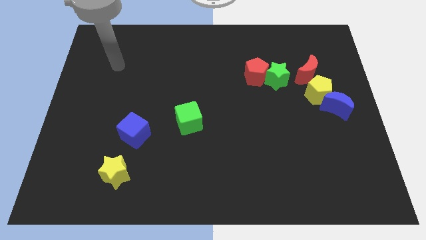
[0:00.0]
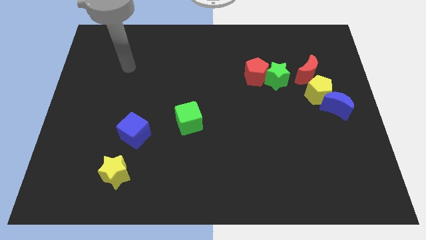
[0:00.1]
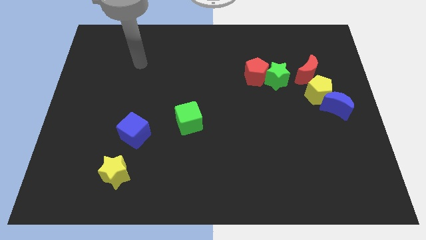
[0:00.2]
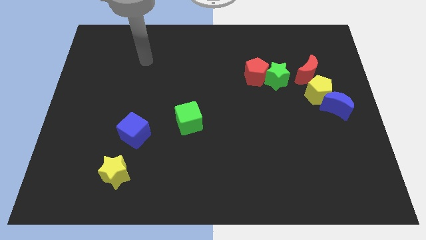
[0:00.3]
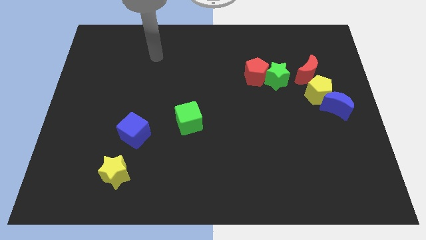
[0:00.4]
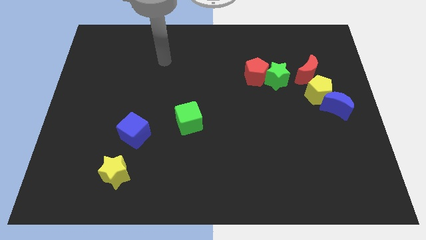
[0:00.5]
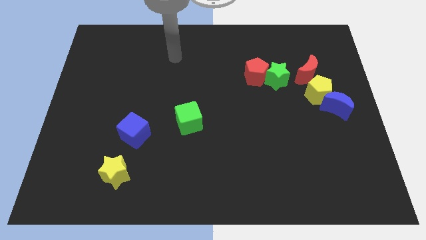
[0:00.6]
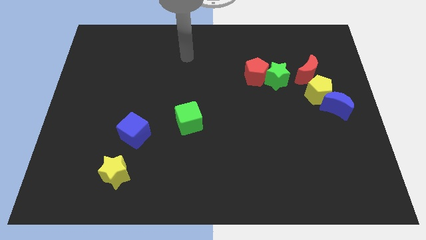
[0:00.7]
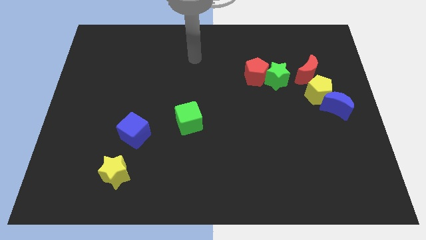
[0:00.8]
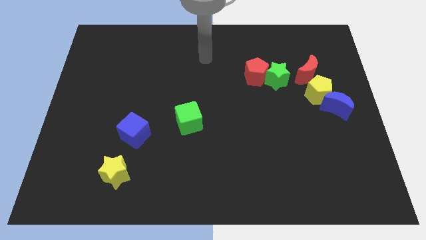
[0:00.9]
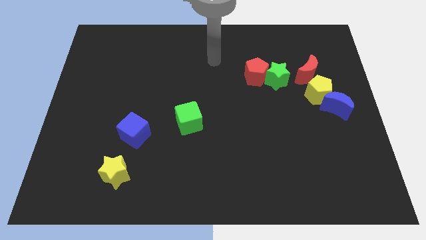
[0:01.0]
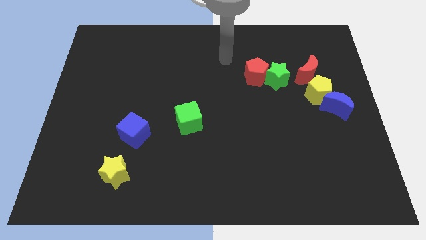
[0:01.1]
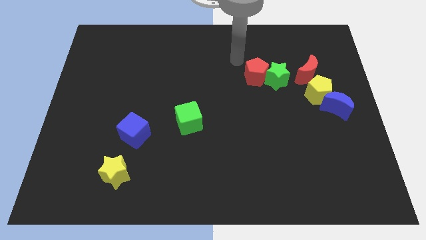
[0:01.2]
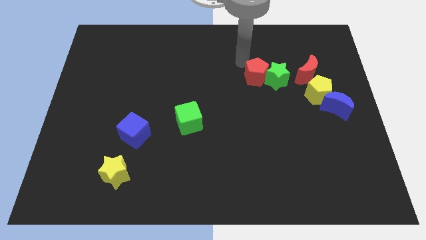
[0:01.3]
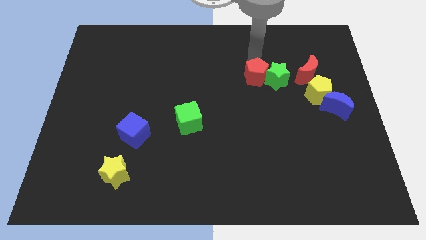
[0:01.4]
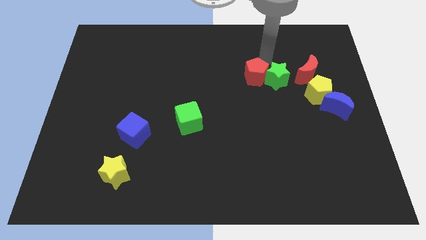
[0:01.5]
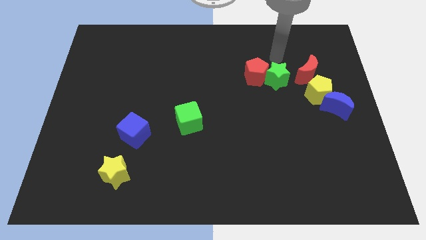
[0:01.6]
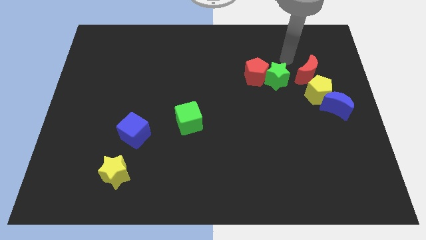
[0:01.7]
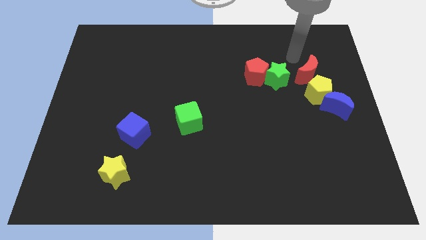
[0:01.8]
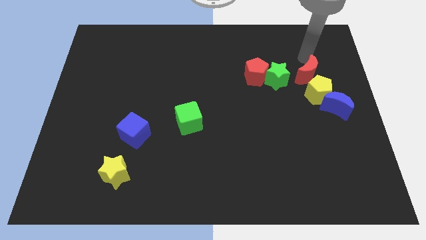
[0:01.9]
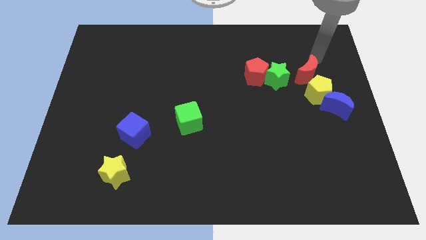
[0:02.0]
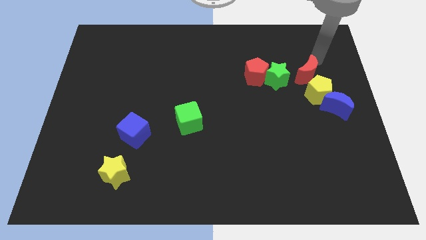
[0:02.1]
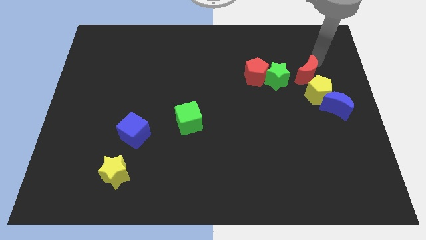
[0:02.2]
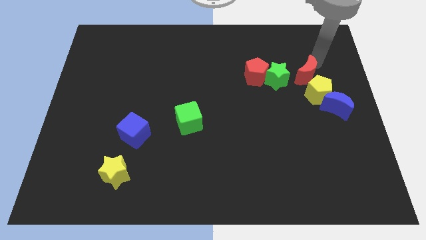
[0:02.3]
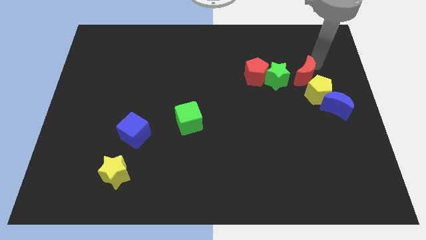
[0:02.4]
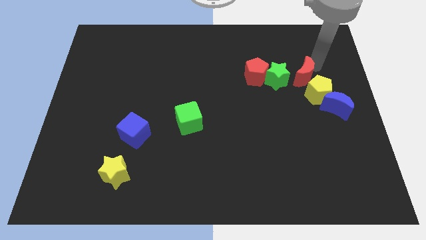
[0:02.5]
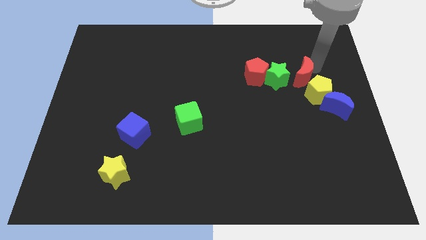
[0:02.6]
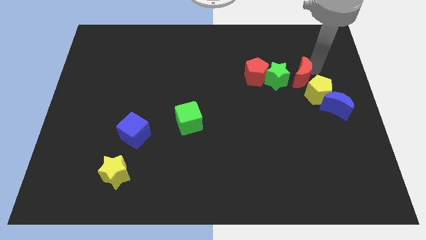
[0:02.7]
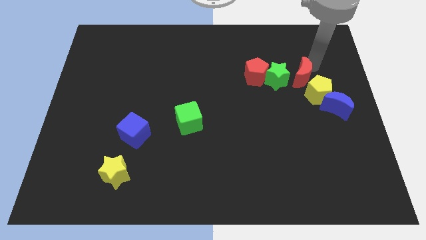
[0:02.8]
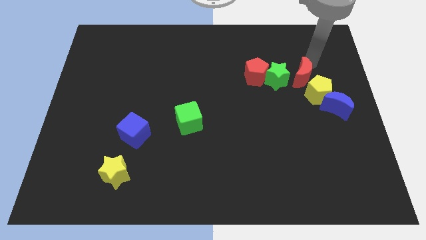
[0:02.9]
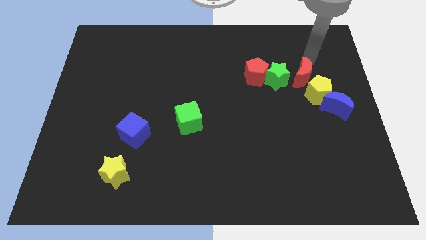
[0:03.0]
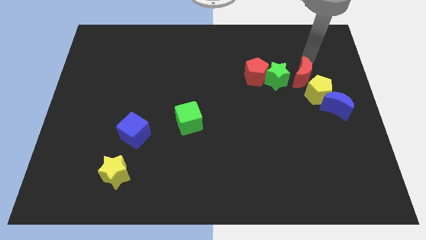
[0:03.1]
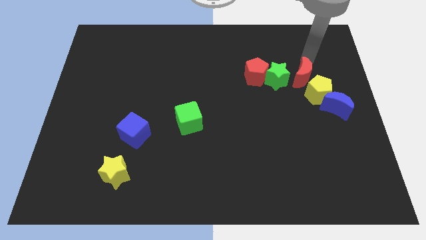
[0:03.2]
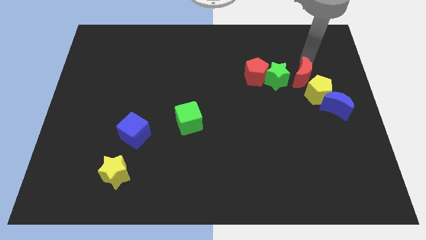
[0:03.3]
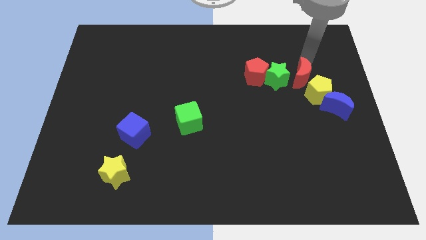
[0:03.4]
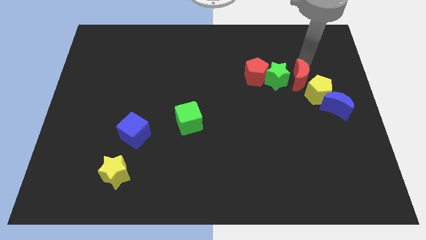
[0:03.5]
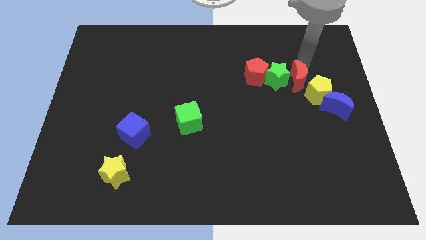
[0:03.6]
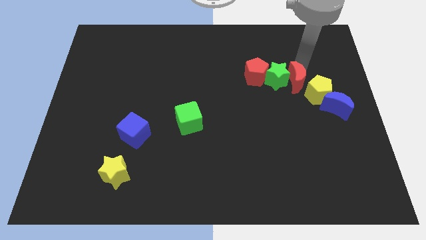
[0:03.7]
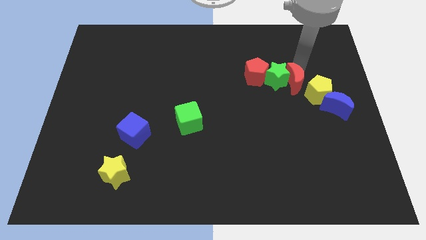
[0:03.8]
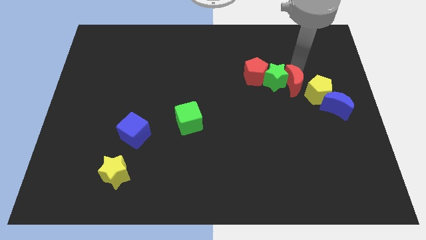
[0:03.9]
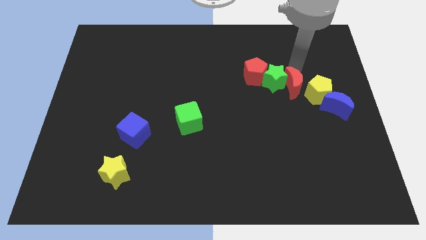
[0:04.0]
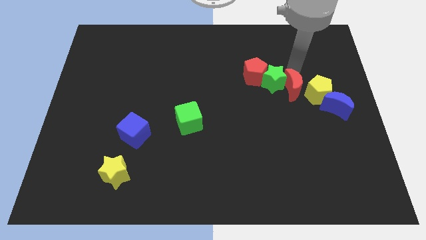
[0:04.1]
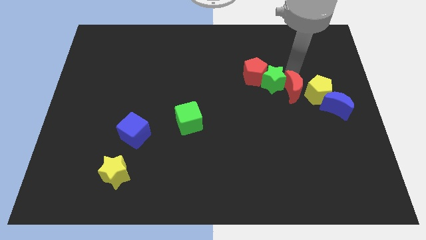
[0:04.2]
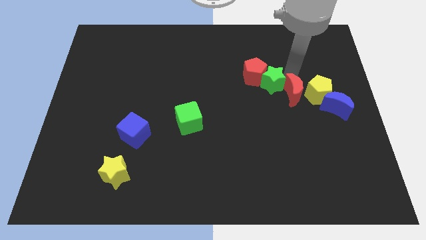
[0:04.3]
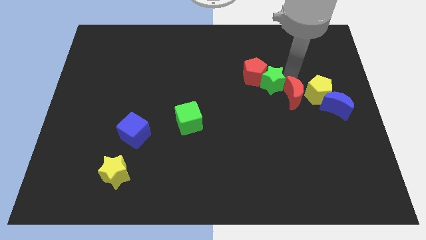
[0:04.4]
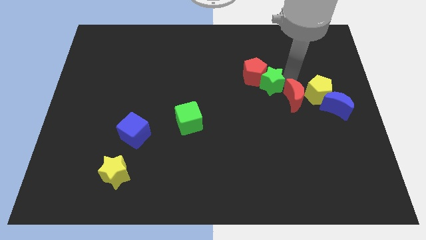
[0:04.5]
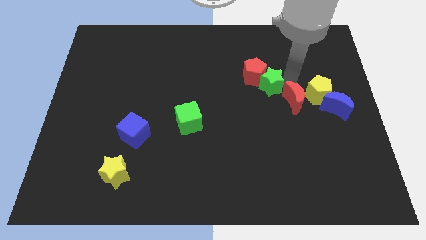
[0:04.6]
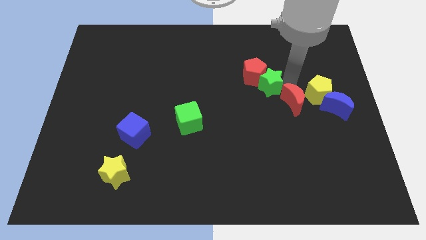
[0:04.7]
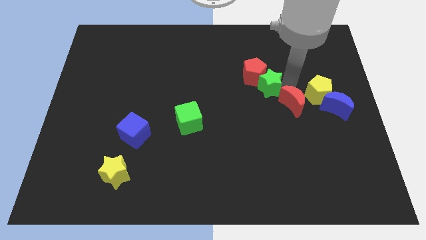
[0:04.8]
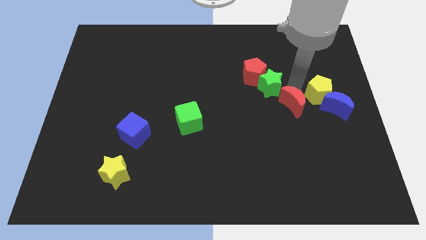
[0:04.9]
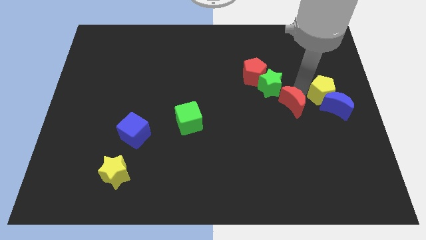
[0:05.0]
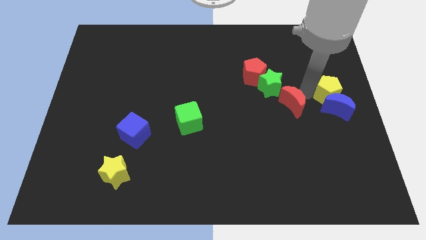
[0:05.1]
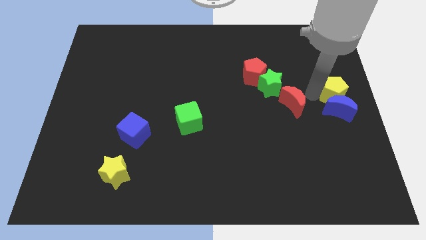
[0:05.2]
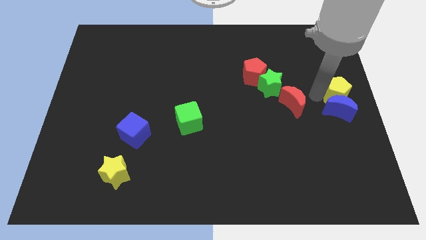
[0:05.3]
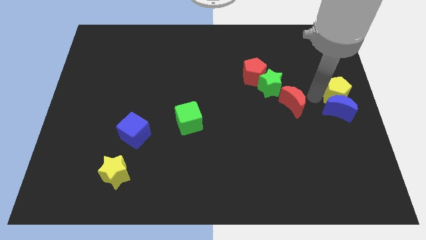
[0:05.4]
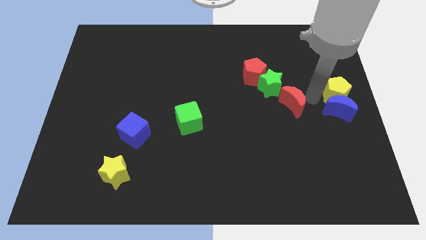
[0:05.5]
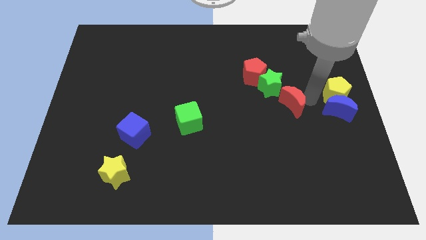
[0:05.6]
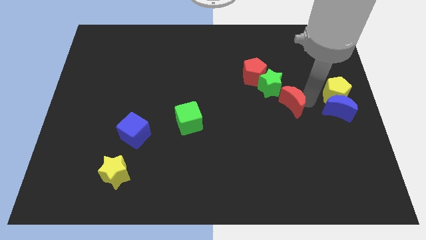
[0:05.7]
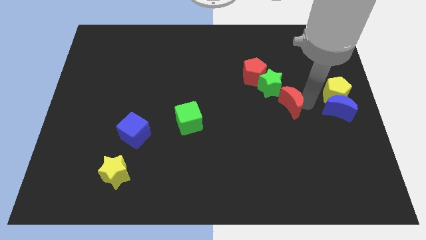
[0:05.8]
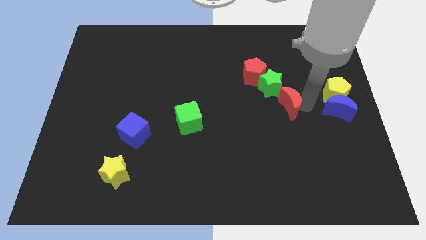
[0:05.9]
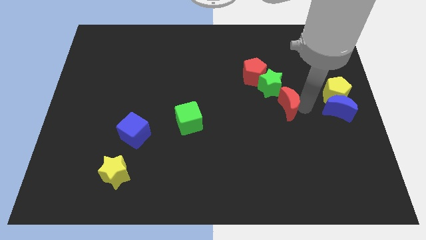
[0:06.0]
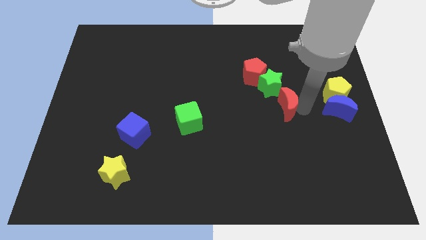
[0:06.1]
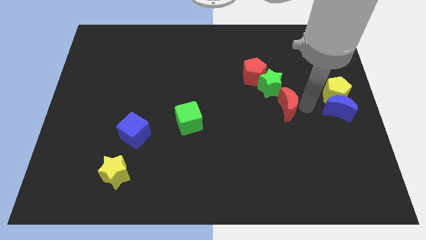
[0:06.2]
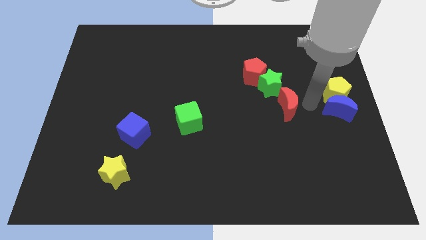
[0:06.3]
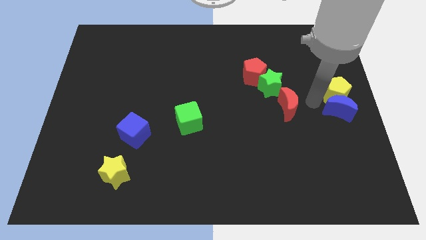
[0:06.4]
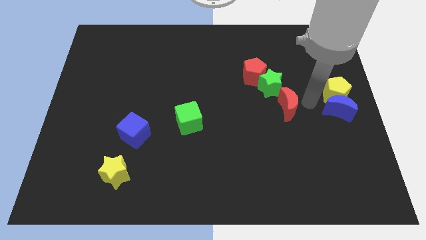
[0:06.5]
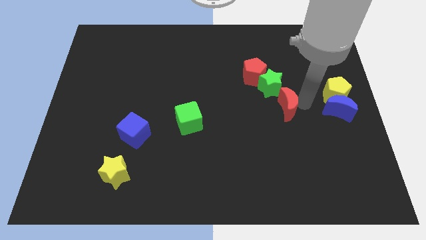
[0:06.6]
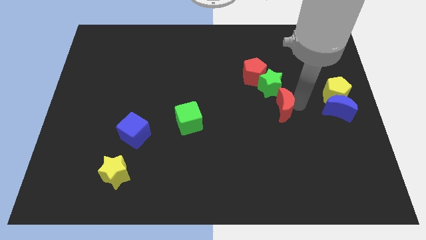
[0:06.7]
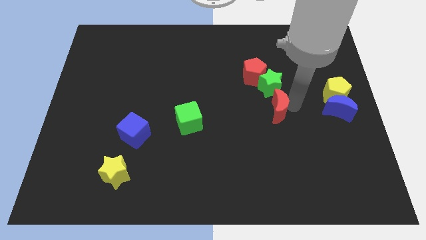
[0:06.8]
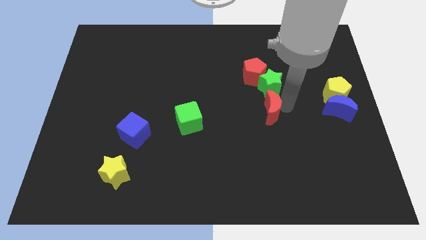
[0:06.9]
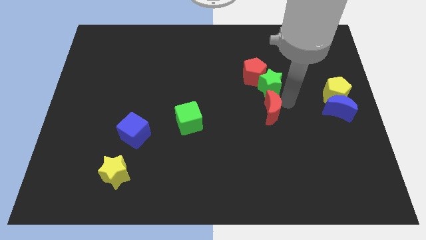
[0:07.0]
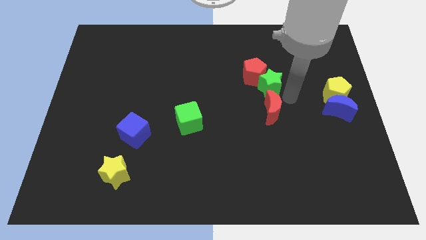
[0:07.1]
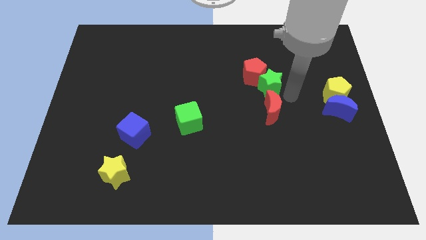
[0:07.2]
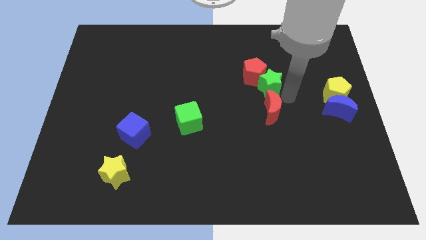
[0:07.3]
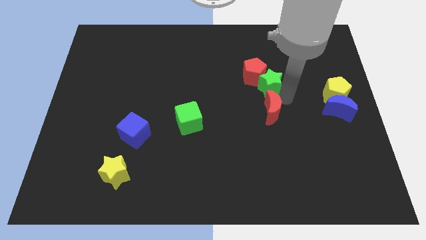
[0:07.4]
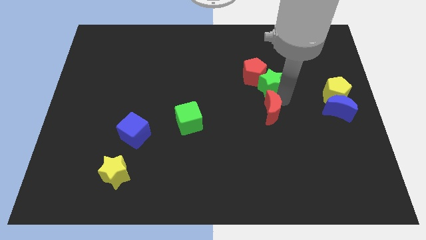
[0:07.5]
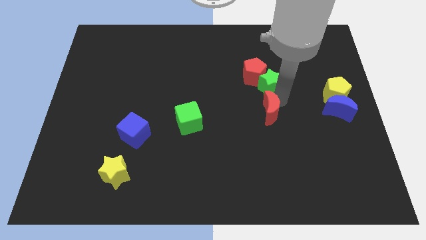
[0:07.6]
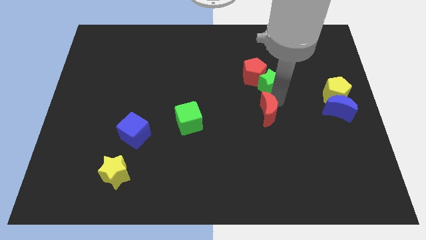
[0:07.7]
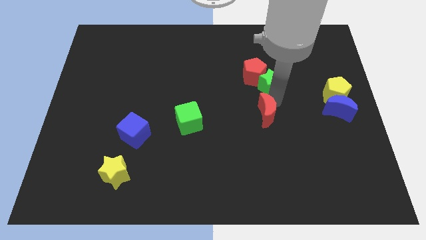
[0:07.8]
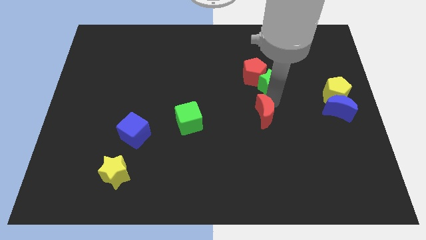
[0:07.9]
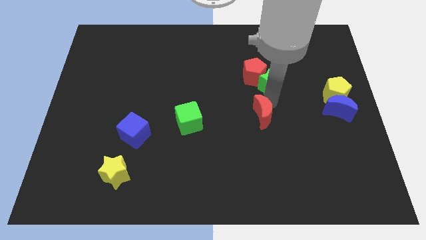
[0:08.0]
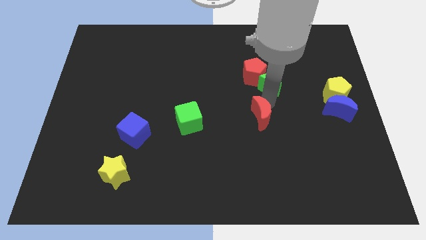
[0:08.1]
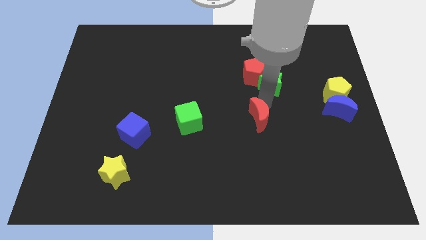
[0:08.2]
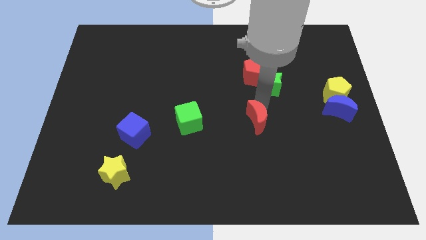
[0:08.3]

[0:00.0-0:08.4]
slide the red moon down and then to the left

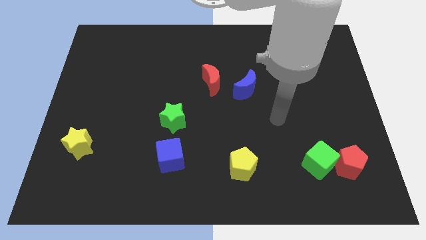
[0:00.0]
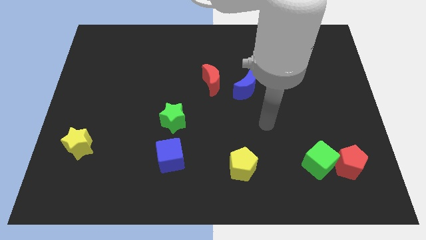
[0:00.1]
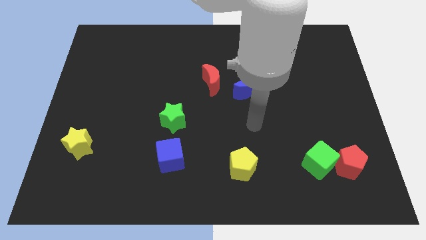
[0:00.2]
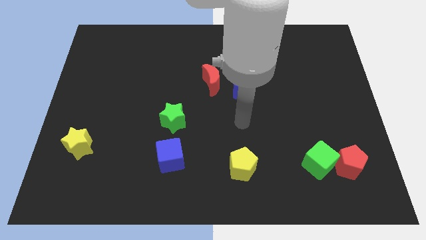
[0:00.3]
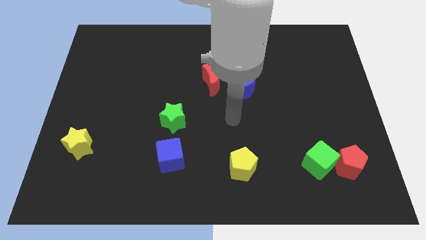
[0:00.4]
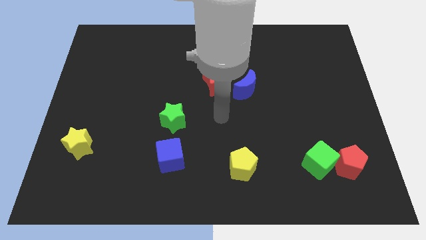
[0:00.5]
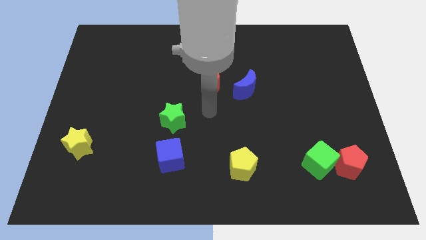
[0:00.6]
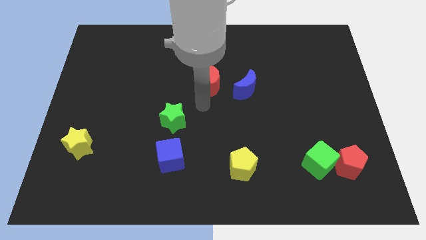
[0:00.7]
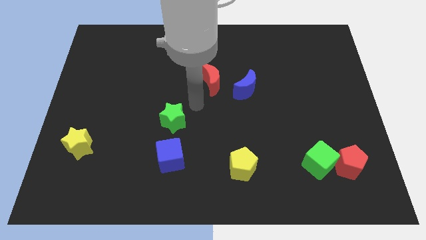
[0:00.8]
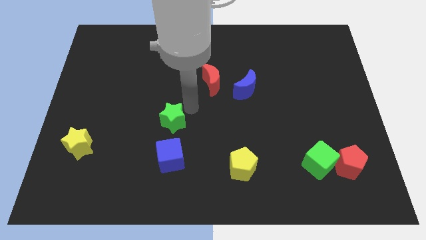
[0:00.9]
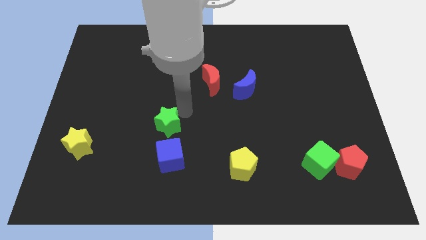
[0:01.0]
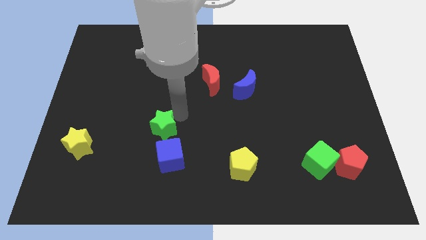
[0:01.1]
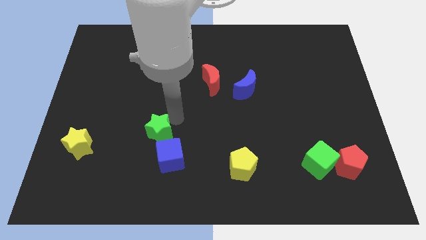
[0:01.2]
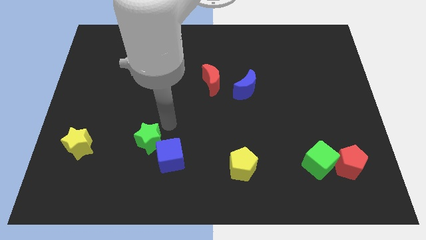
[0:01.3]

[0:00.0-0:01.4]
slide the green star down and then left a bit
